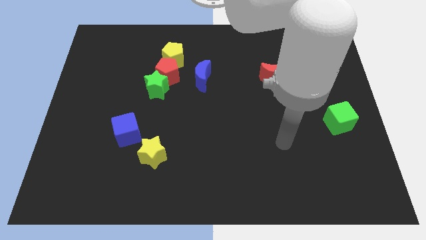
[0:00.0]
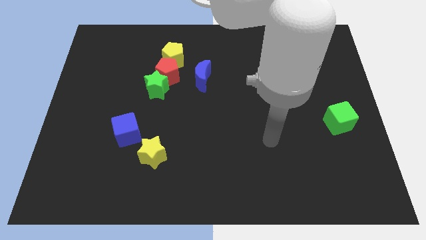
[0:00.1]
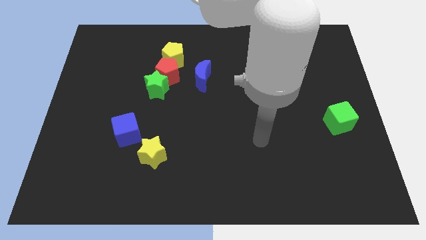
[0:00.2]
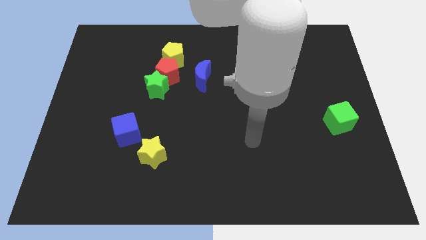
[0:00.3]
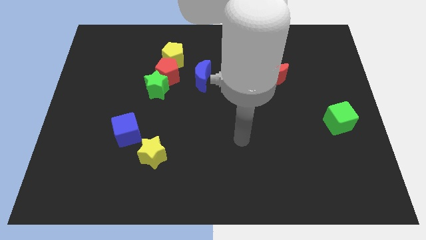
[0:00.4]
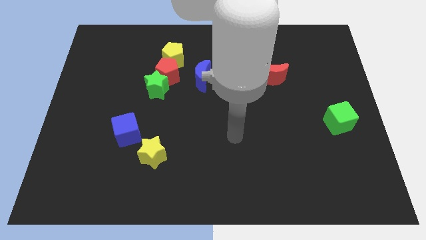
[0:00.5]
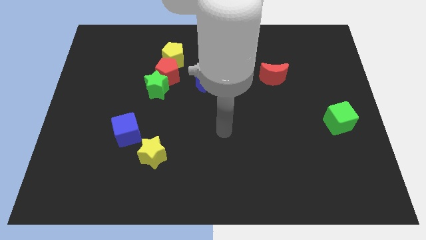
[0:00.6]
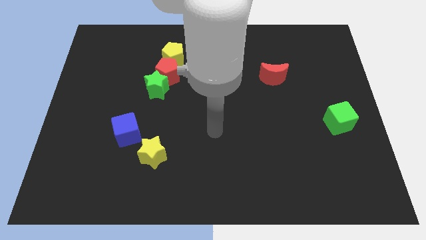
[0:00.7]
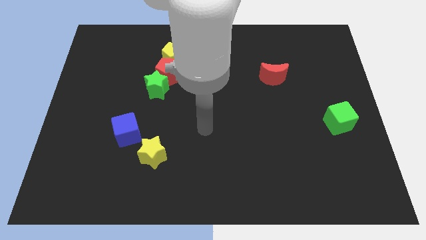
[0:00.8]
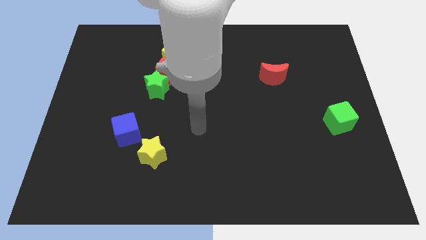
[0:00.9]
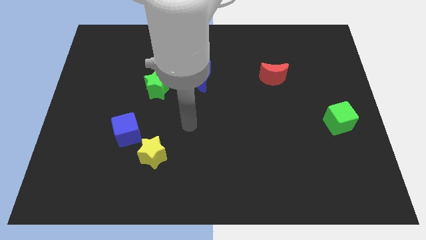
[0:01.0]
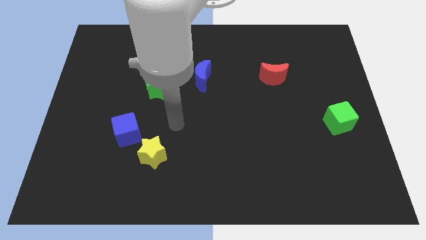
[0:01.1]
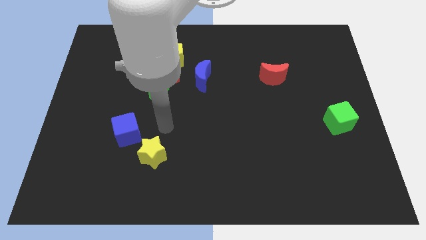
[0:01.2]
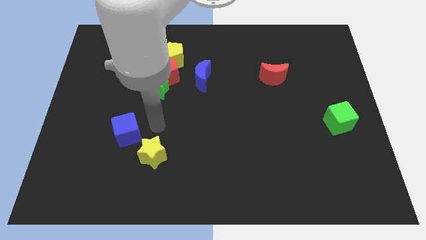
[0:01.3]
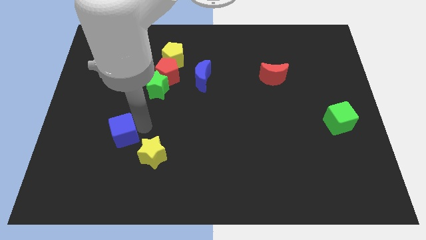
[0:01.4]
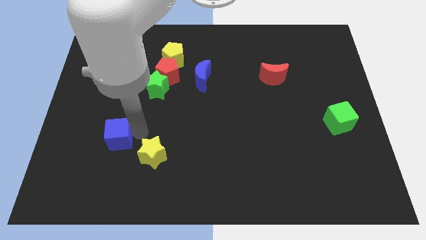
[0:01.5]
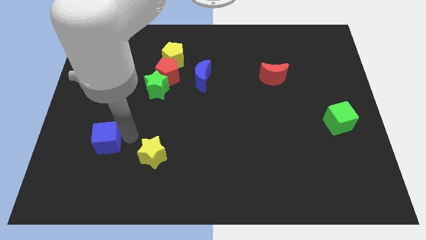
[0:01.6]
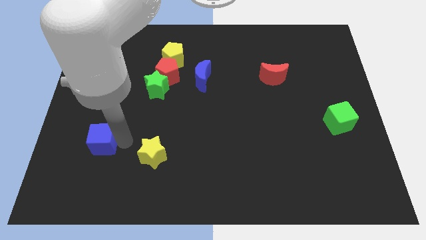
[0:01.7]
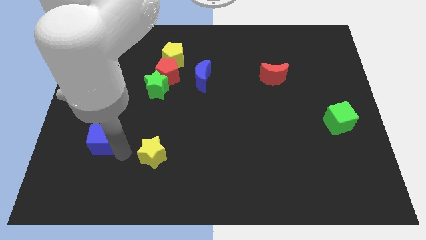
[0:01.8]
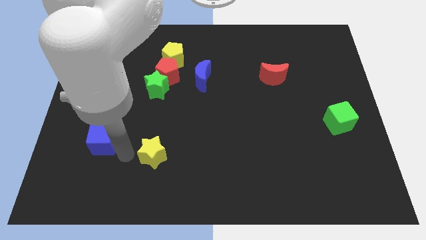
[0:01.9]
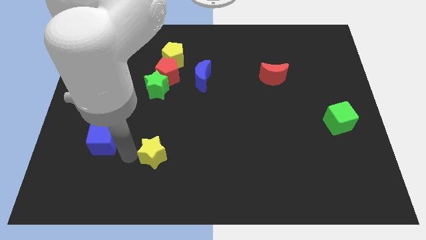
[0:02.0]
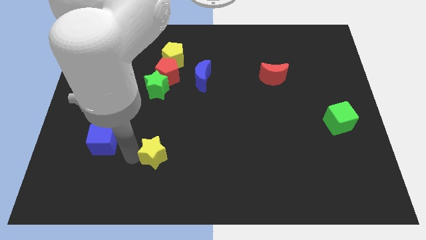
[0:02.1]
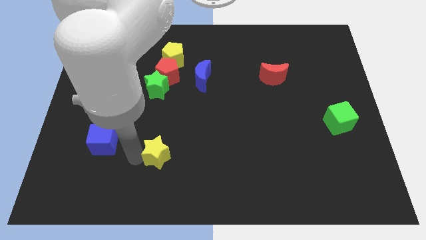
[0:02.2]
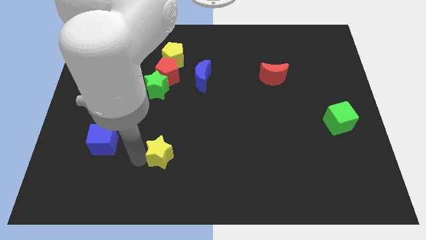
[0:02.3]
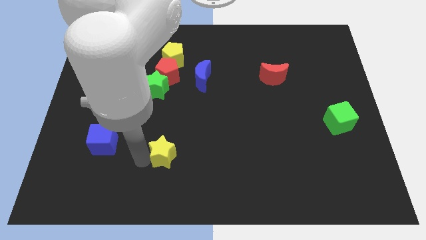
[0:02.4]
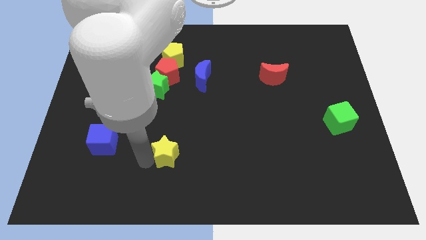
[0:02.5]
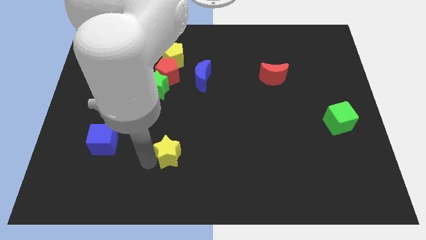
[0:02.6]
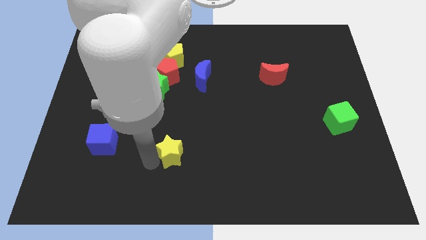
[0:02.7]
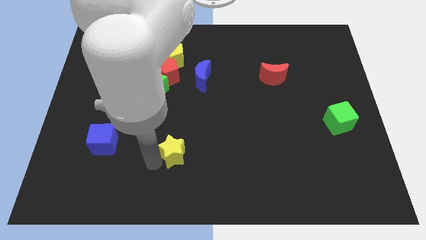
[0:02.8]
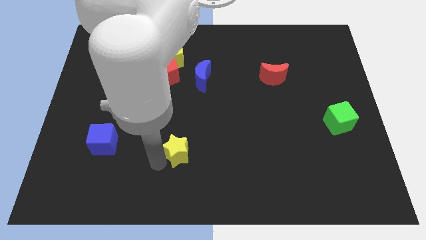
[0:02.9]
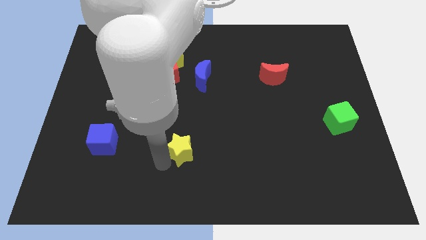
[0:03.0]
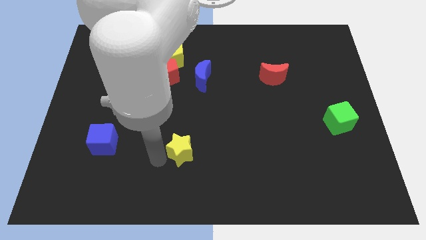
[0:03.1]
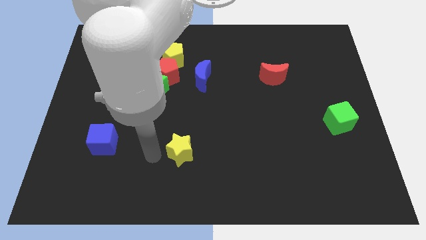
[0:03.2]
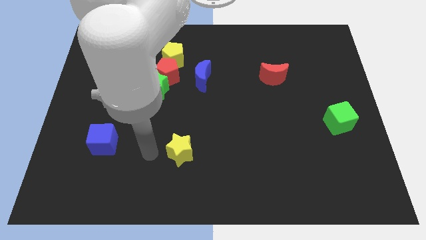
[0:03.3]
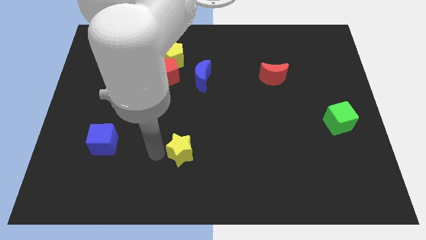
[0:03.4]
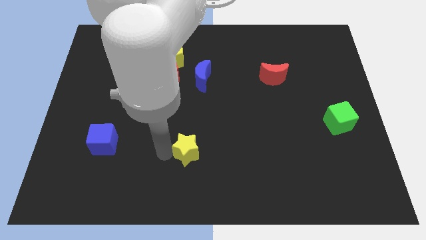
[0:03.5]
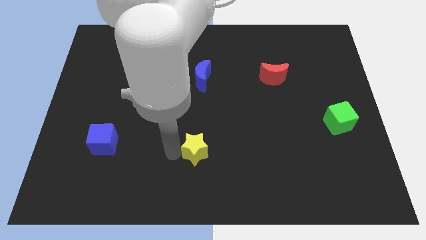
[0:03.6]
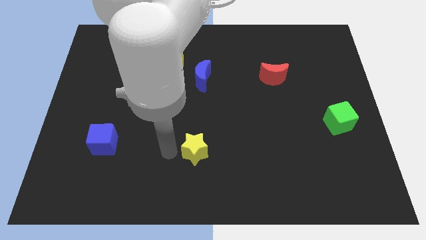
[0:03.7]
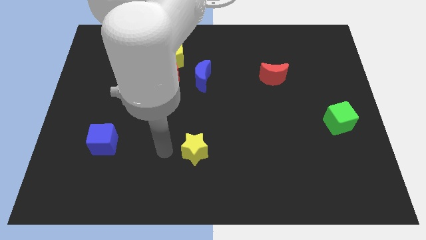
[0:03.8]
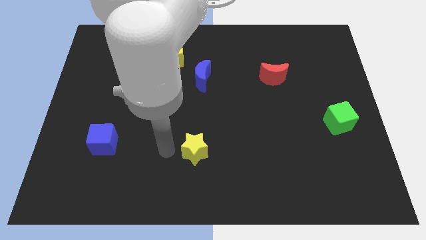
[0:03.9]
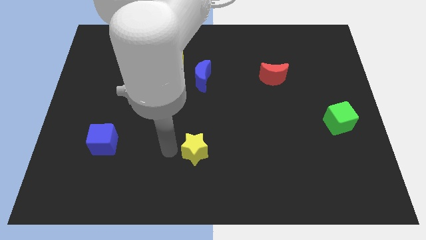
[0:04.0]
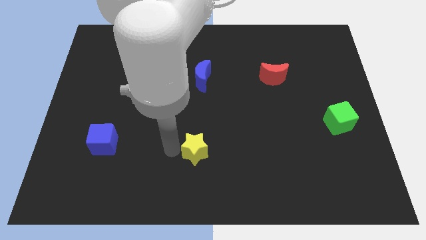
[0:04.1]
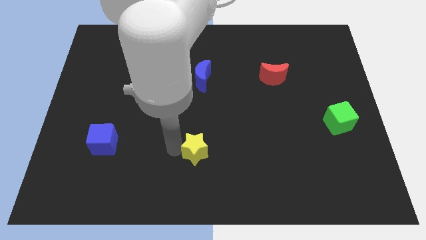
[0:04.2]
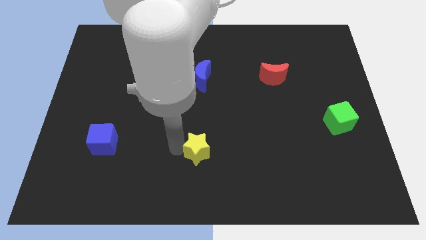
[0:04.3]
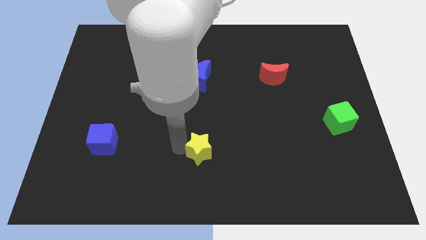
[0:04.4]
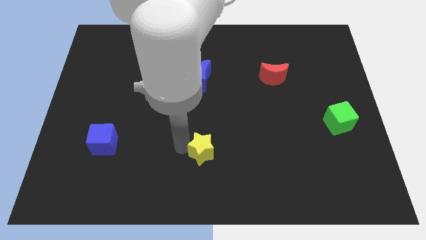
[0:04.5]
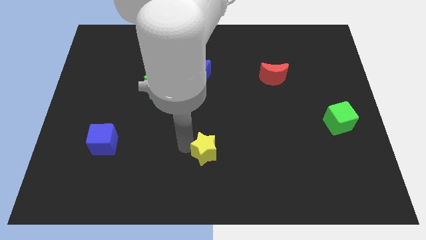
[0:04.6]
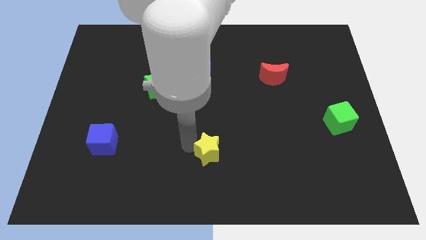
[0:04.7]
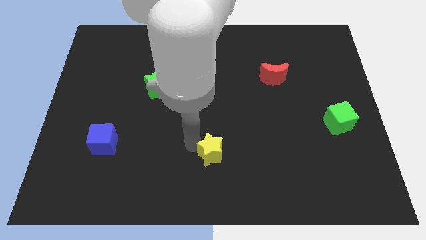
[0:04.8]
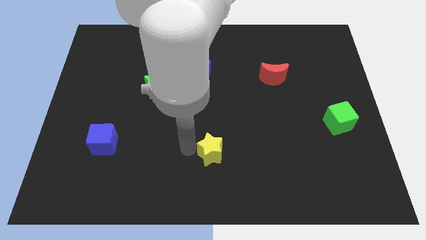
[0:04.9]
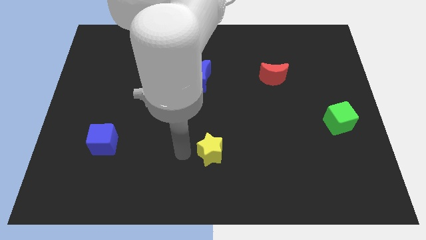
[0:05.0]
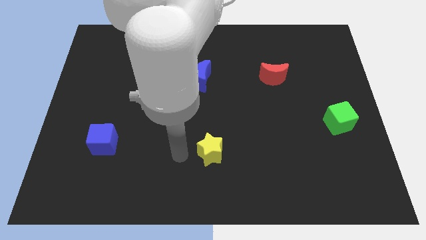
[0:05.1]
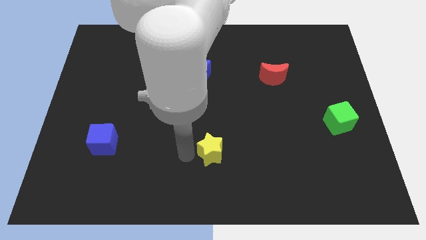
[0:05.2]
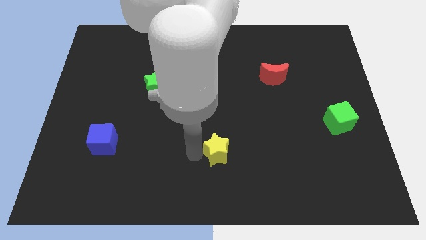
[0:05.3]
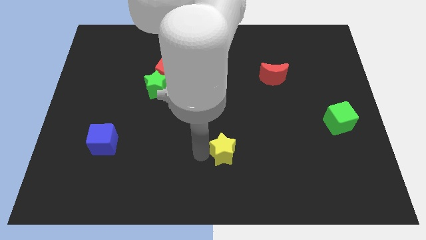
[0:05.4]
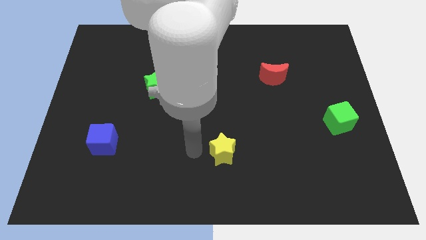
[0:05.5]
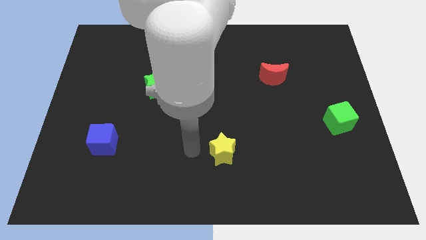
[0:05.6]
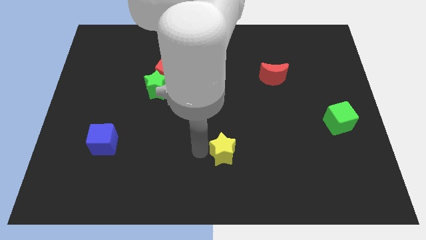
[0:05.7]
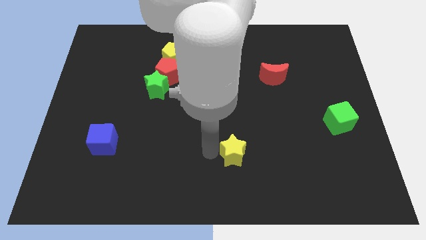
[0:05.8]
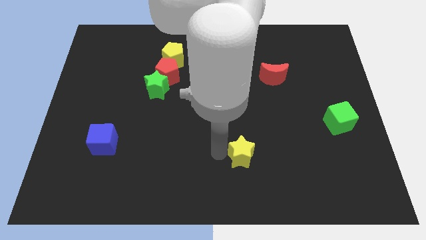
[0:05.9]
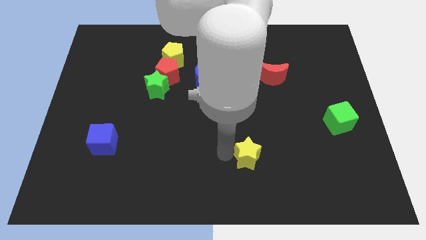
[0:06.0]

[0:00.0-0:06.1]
push the yellow star right

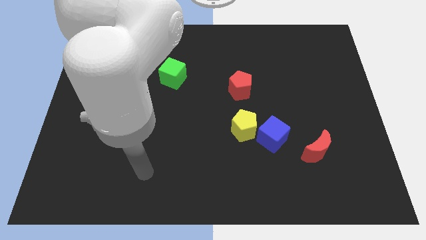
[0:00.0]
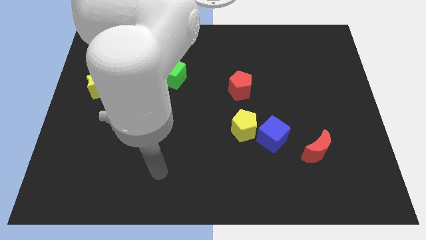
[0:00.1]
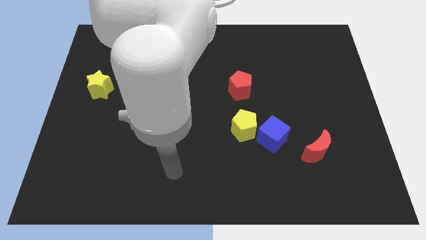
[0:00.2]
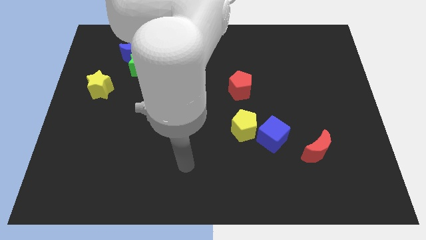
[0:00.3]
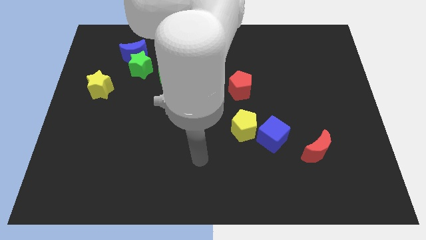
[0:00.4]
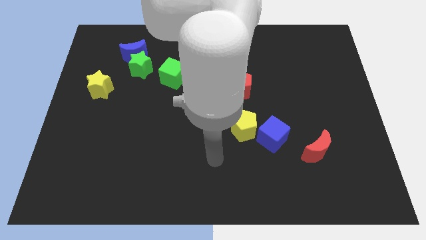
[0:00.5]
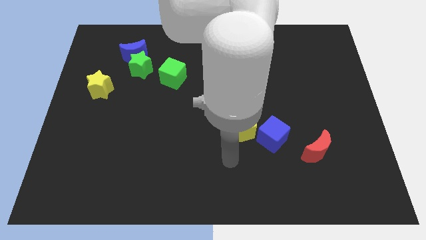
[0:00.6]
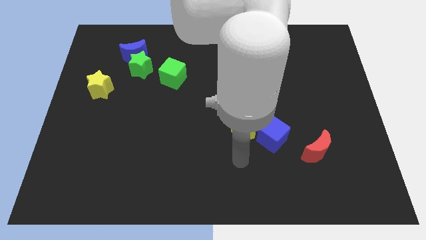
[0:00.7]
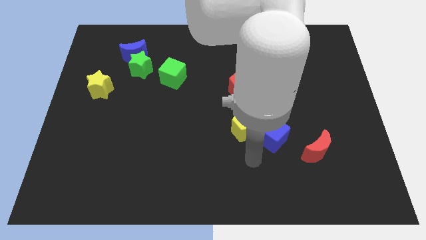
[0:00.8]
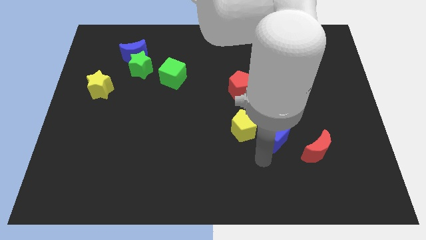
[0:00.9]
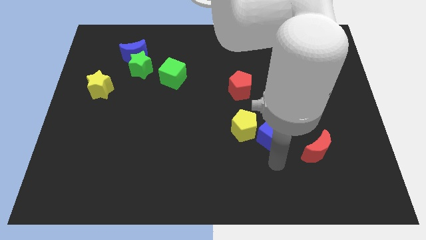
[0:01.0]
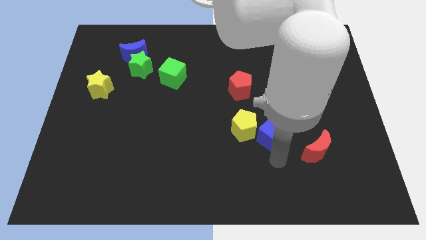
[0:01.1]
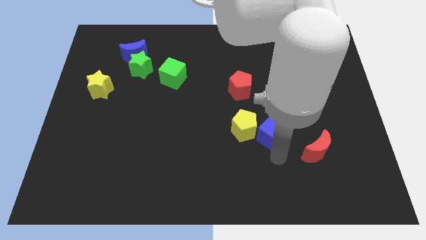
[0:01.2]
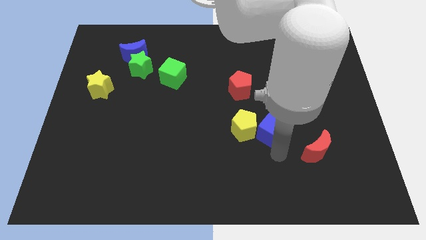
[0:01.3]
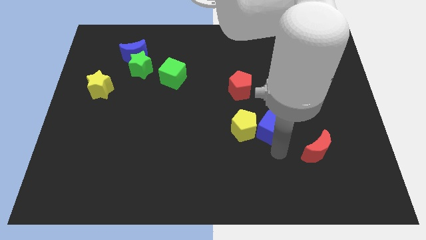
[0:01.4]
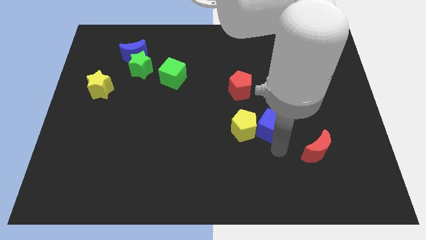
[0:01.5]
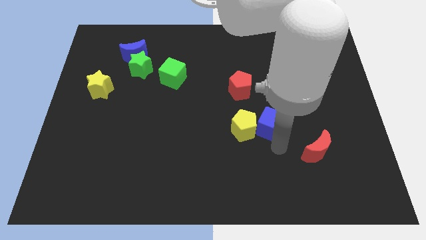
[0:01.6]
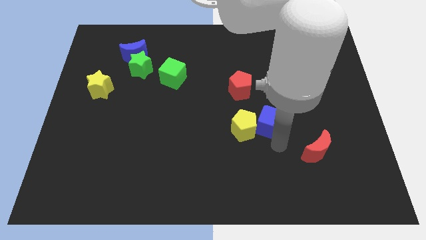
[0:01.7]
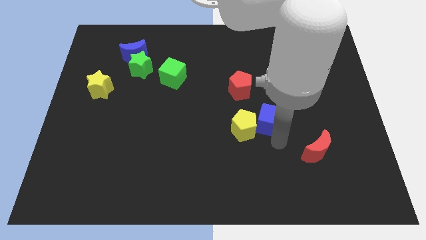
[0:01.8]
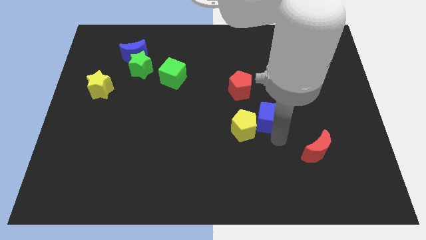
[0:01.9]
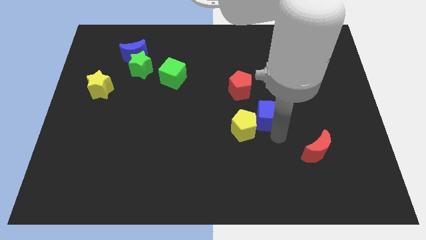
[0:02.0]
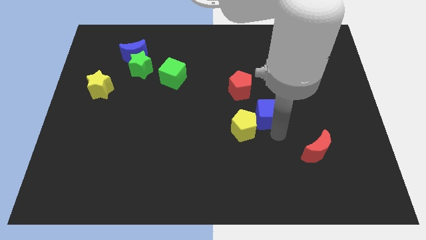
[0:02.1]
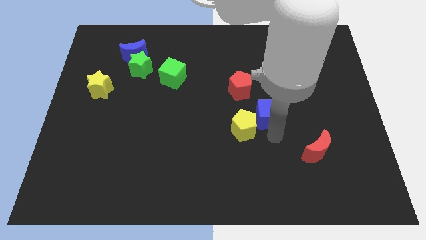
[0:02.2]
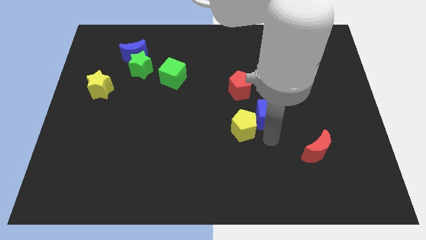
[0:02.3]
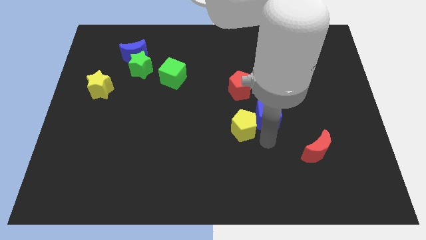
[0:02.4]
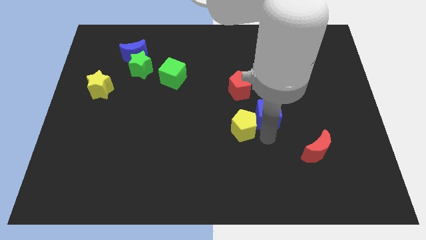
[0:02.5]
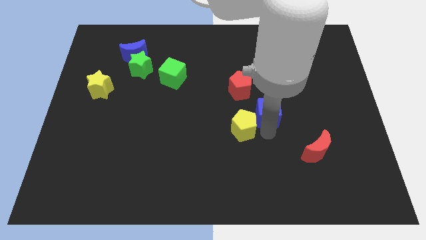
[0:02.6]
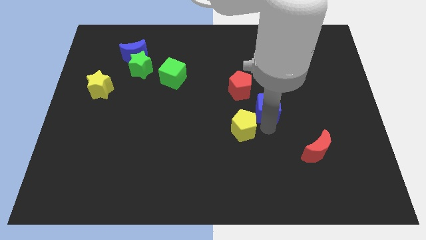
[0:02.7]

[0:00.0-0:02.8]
slide the blue cube upwards a bit
